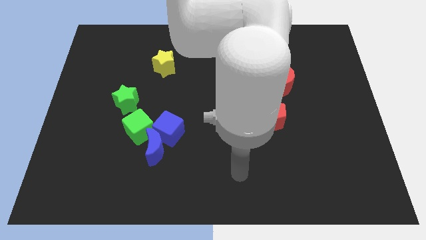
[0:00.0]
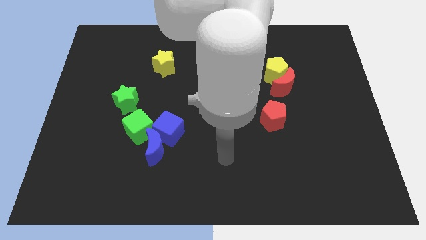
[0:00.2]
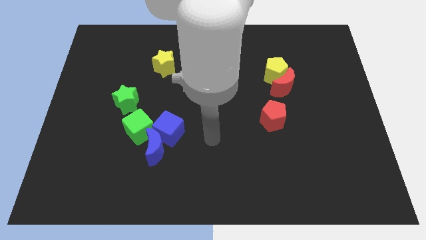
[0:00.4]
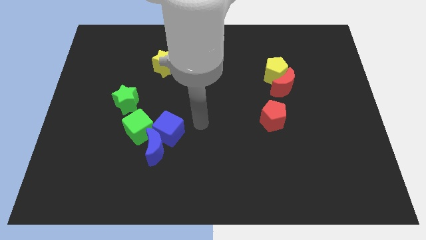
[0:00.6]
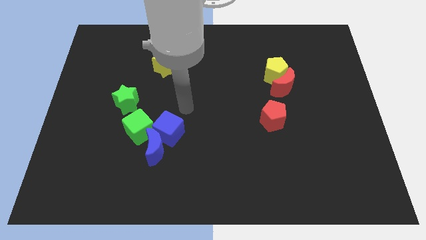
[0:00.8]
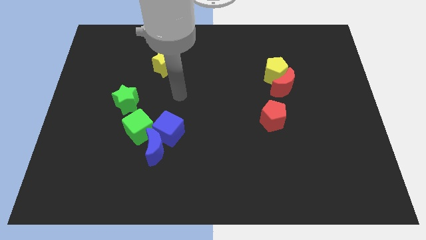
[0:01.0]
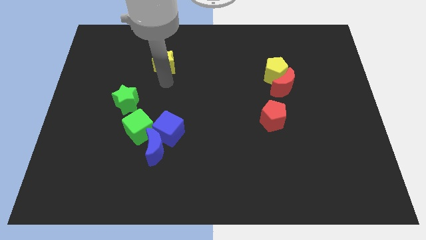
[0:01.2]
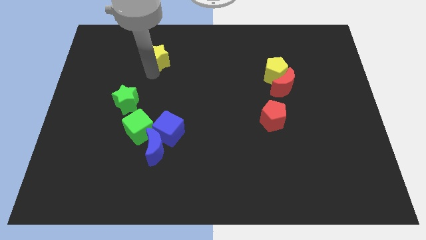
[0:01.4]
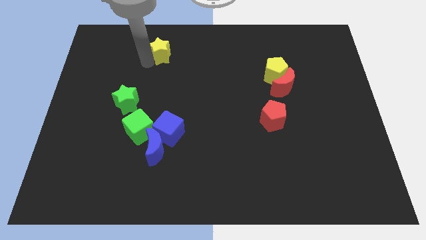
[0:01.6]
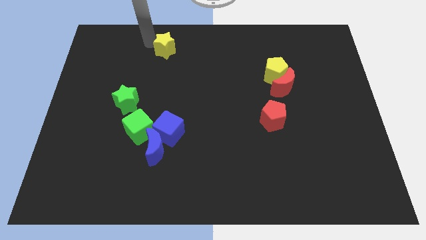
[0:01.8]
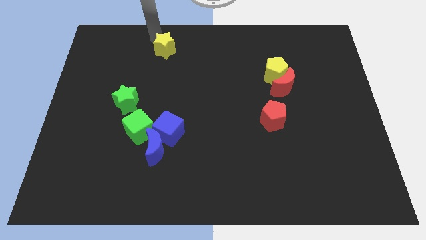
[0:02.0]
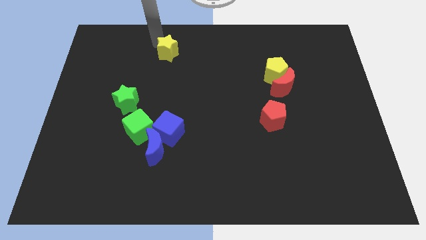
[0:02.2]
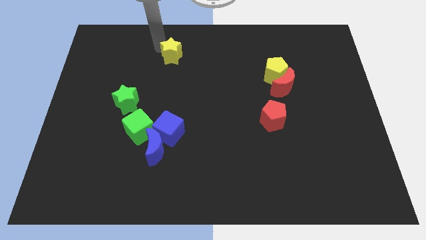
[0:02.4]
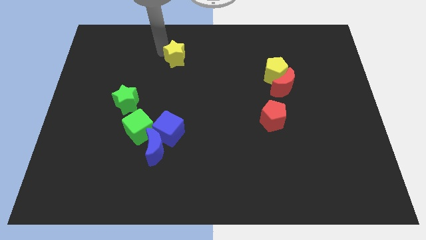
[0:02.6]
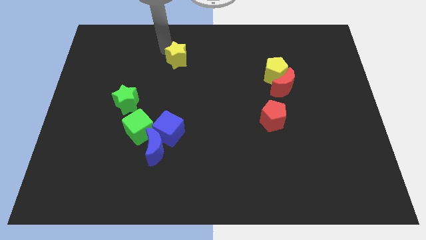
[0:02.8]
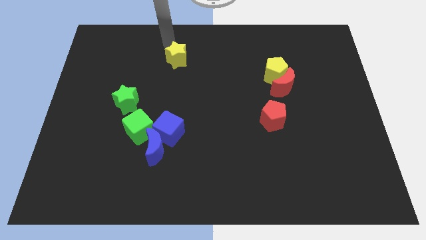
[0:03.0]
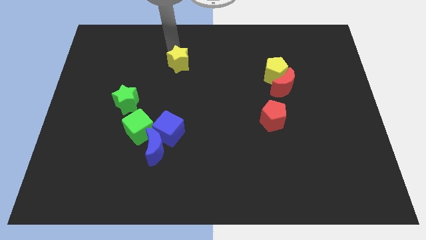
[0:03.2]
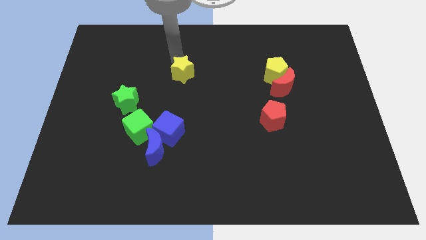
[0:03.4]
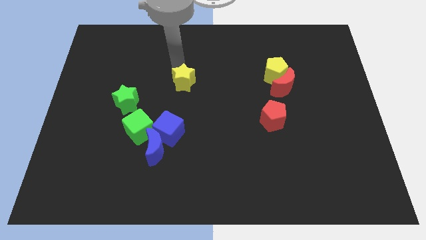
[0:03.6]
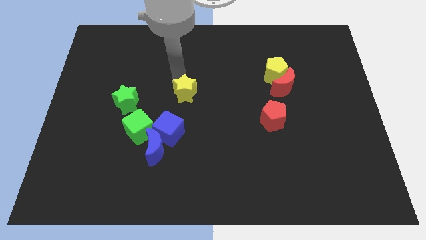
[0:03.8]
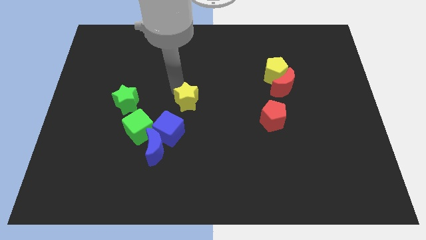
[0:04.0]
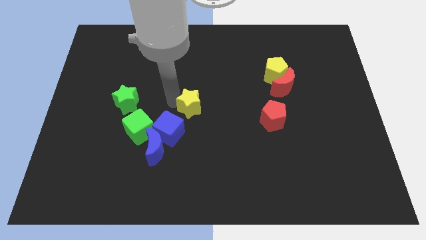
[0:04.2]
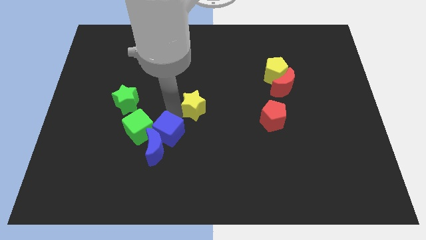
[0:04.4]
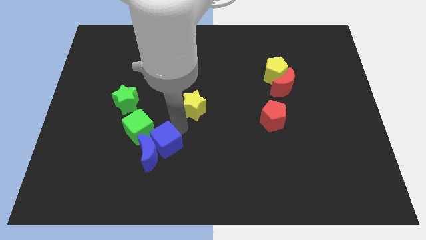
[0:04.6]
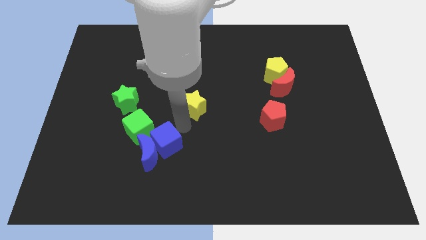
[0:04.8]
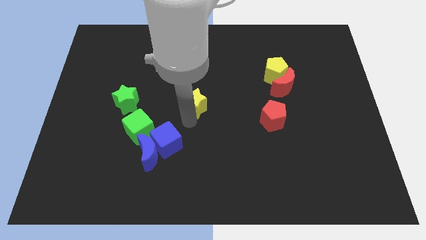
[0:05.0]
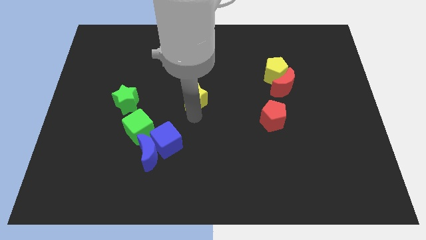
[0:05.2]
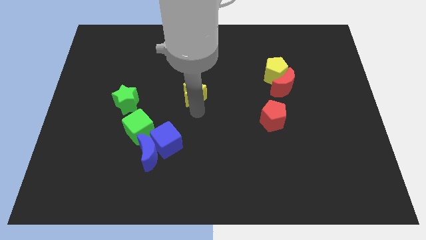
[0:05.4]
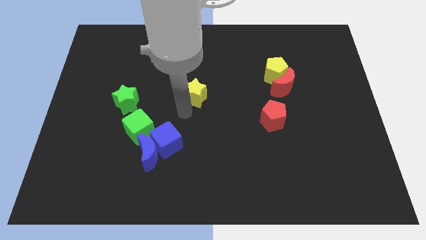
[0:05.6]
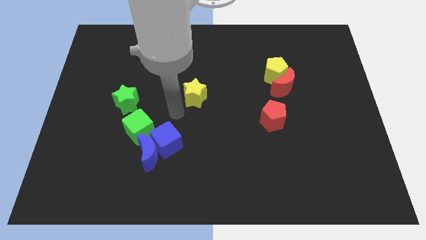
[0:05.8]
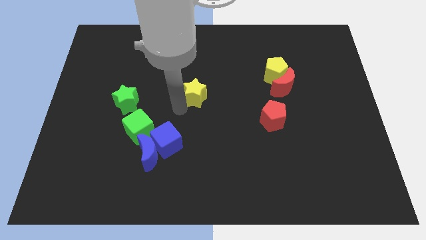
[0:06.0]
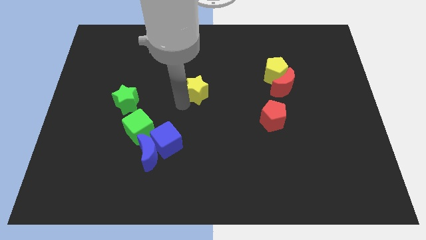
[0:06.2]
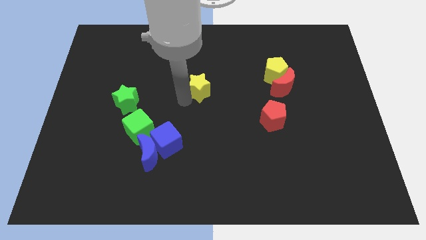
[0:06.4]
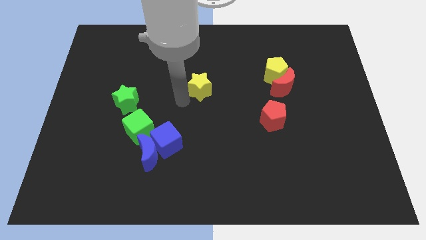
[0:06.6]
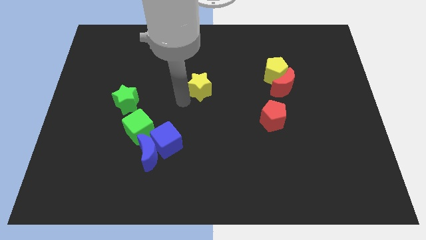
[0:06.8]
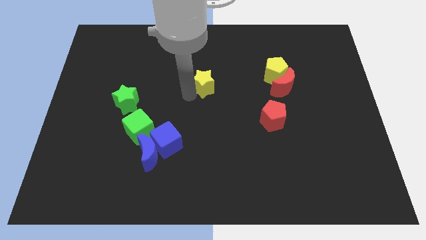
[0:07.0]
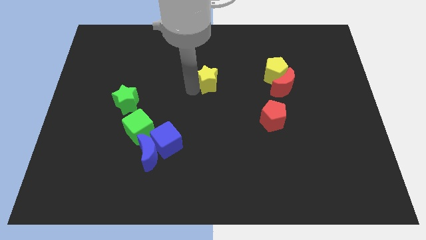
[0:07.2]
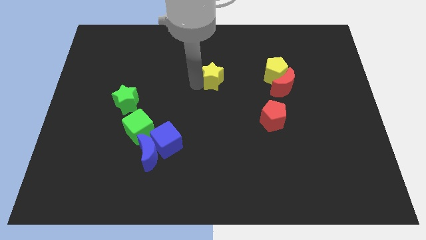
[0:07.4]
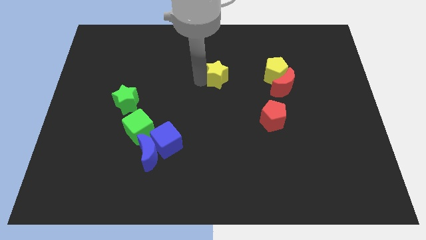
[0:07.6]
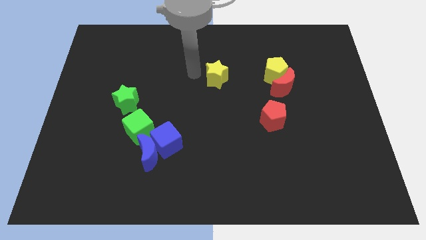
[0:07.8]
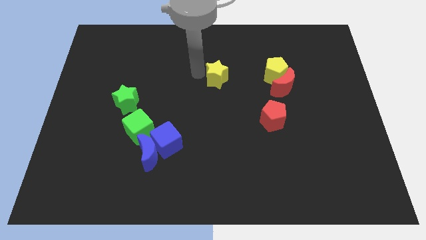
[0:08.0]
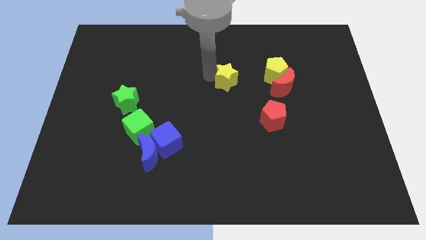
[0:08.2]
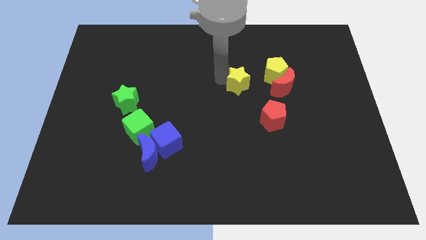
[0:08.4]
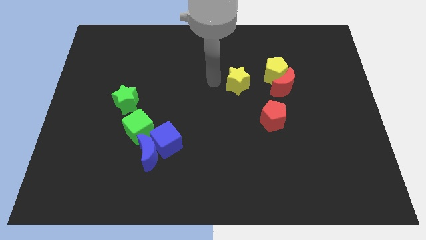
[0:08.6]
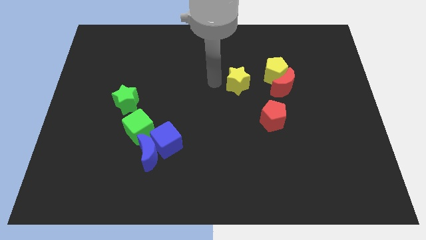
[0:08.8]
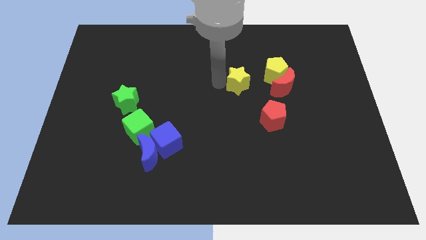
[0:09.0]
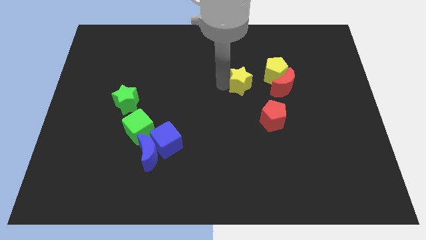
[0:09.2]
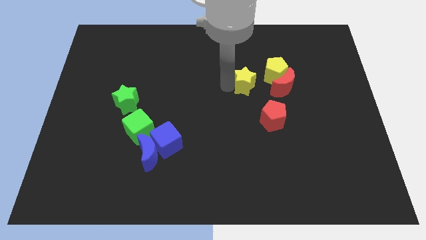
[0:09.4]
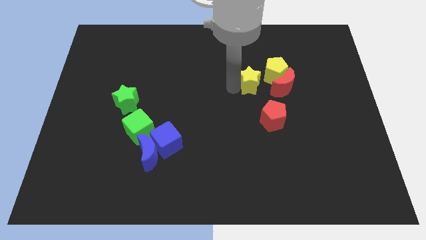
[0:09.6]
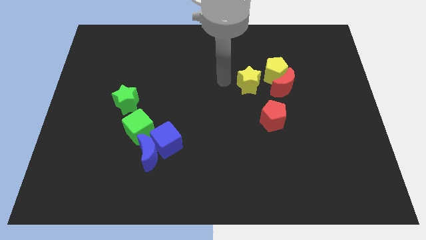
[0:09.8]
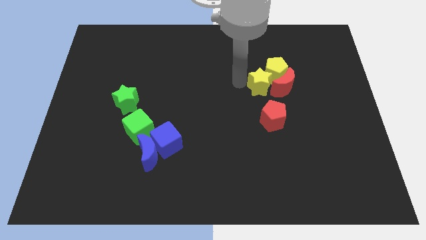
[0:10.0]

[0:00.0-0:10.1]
slide the yellow star close to the red moon

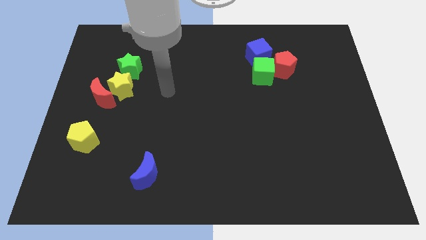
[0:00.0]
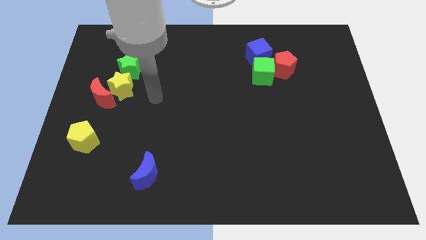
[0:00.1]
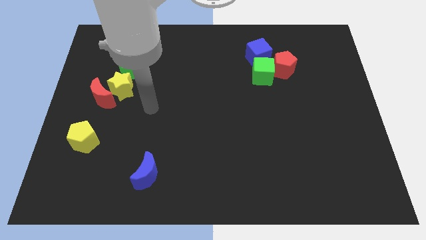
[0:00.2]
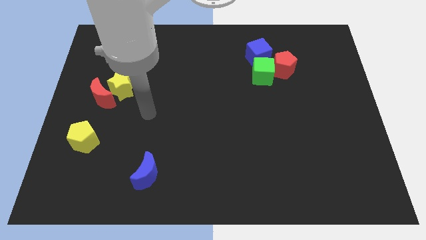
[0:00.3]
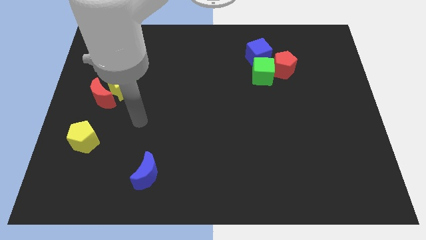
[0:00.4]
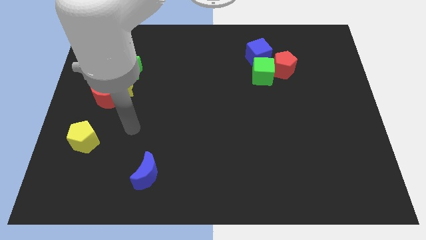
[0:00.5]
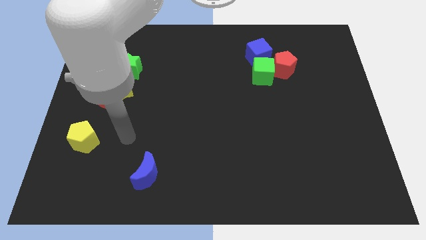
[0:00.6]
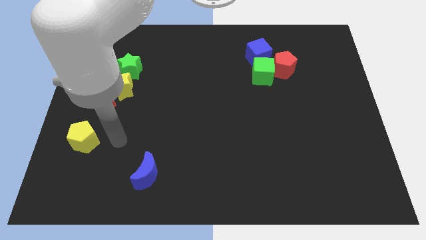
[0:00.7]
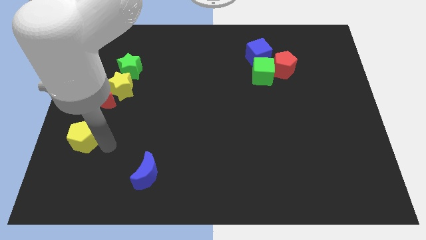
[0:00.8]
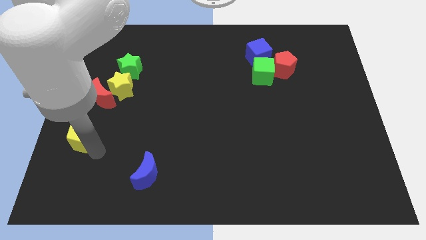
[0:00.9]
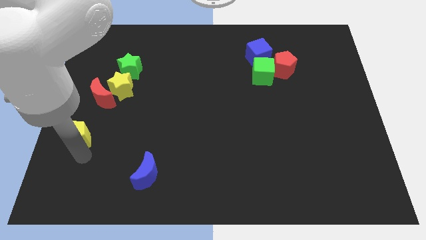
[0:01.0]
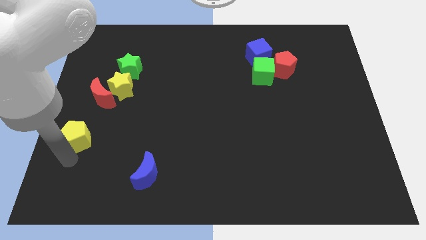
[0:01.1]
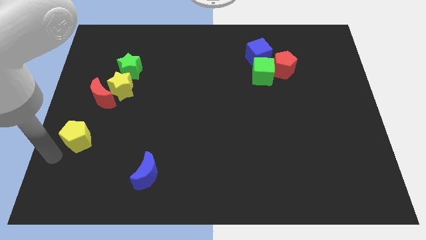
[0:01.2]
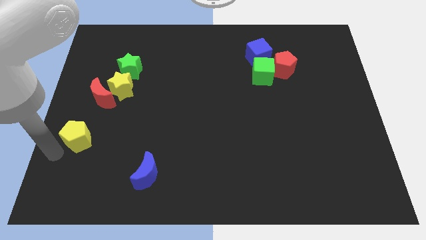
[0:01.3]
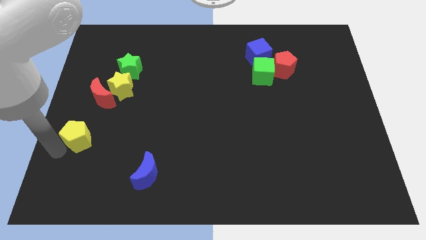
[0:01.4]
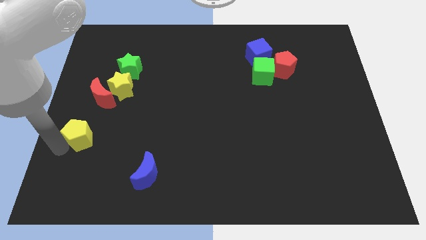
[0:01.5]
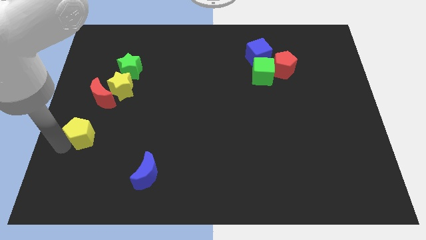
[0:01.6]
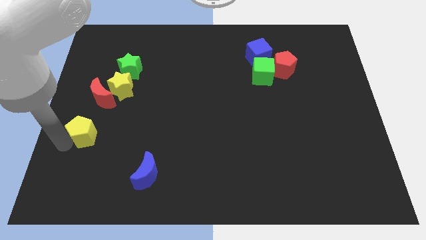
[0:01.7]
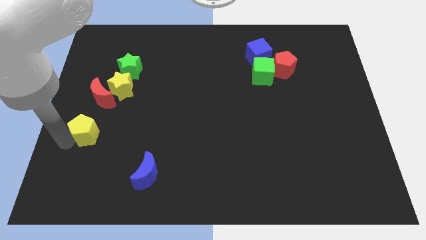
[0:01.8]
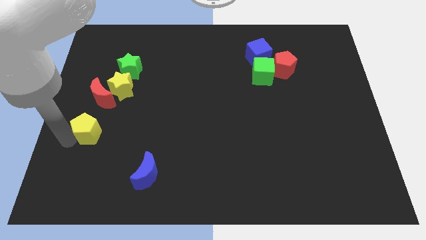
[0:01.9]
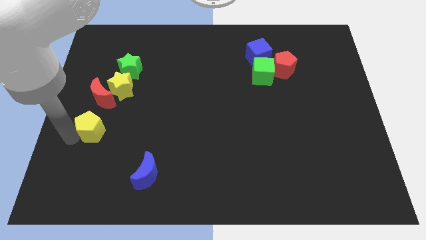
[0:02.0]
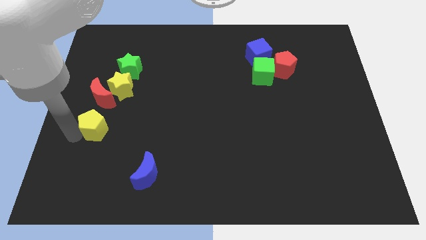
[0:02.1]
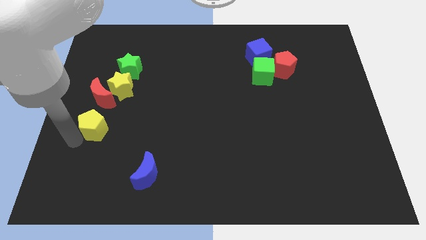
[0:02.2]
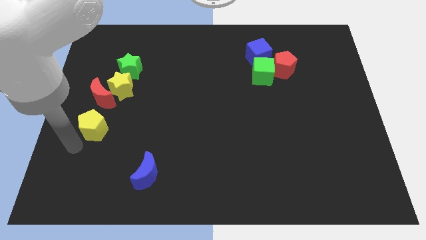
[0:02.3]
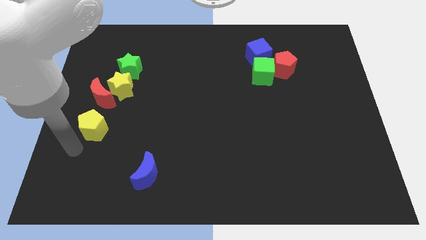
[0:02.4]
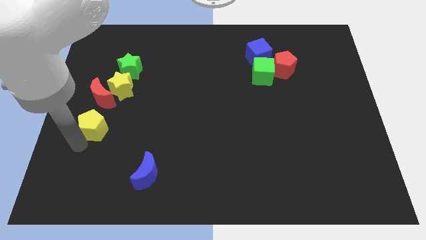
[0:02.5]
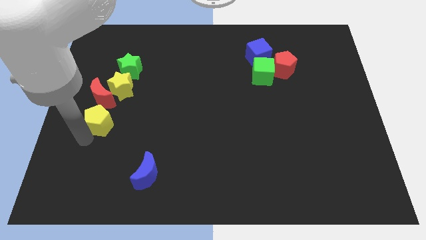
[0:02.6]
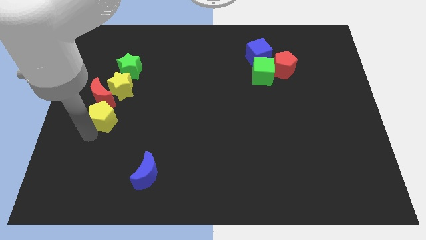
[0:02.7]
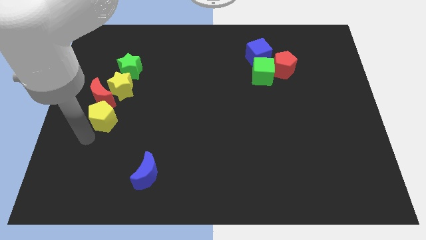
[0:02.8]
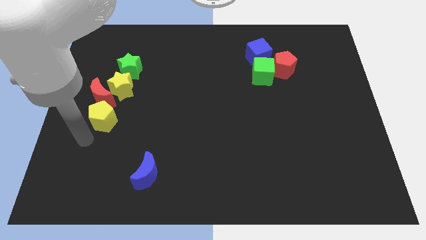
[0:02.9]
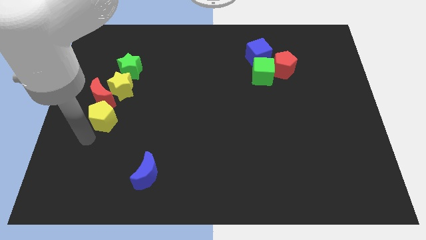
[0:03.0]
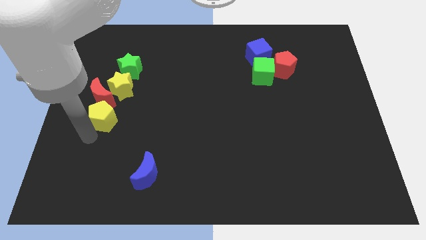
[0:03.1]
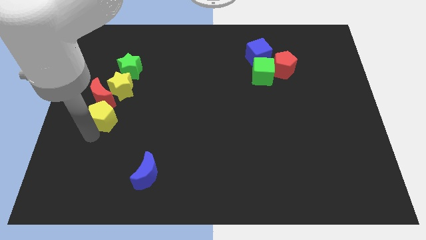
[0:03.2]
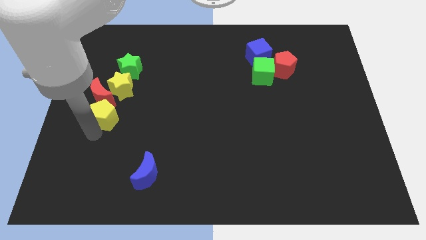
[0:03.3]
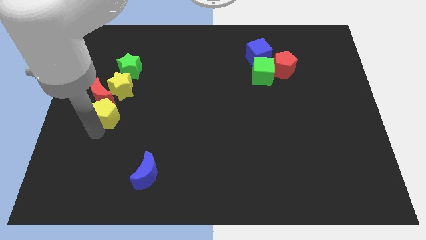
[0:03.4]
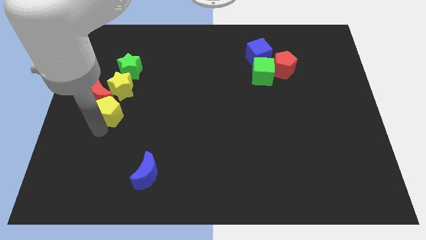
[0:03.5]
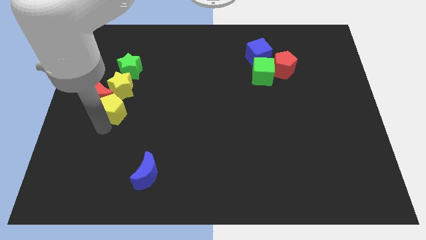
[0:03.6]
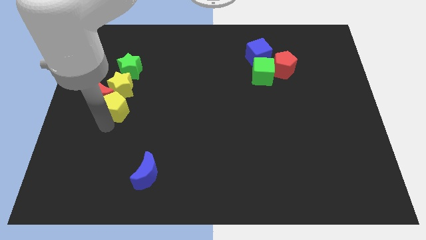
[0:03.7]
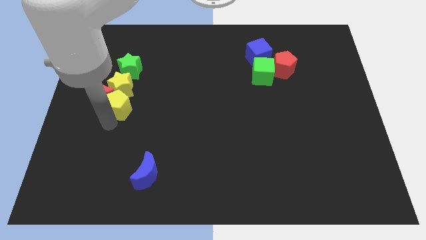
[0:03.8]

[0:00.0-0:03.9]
push the yellow pentagon to the yellow star
